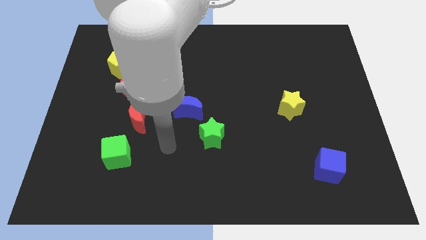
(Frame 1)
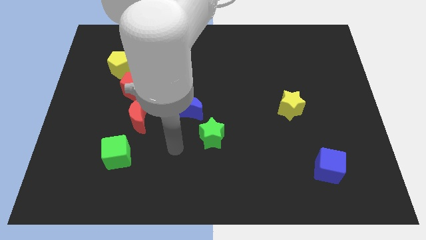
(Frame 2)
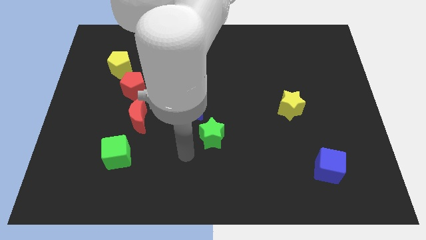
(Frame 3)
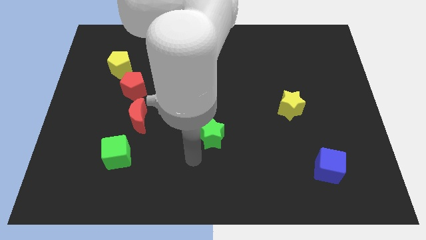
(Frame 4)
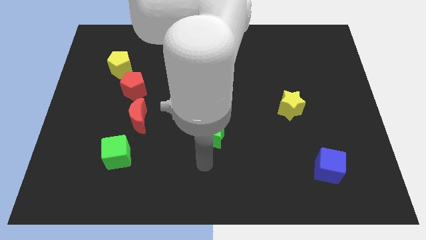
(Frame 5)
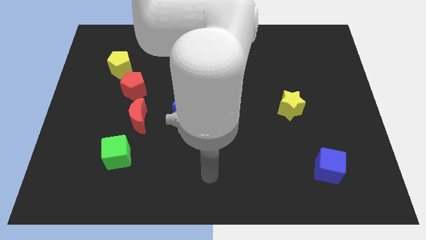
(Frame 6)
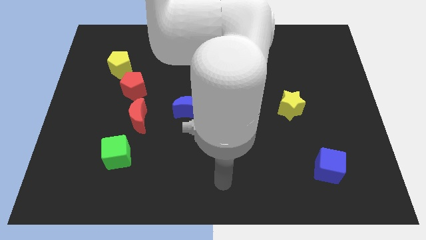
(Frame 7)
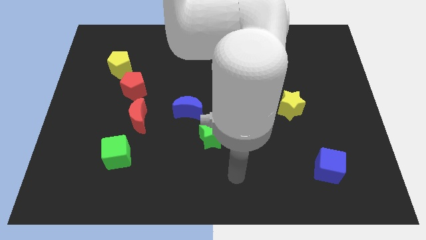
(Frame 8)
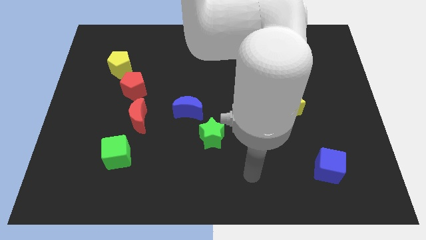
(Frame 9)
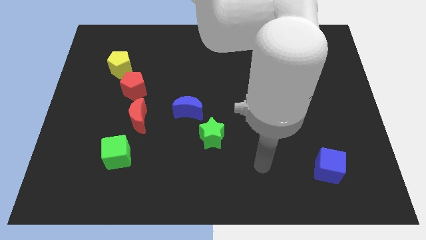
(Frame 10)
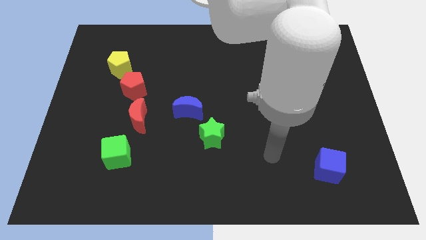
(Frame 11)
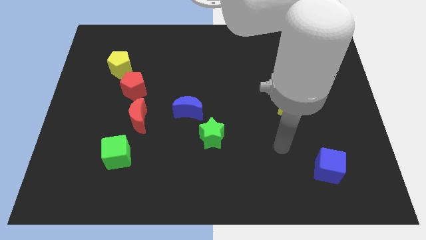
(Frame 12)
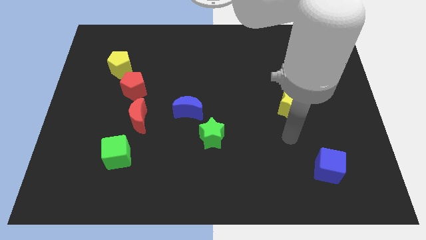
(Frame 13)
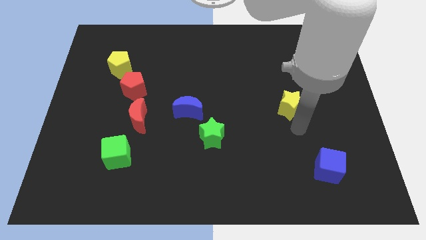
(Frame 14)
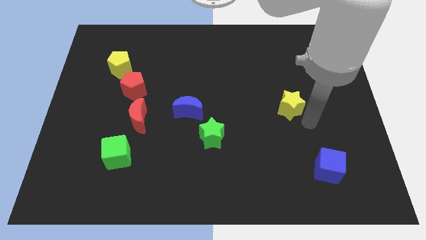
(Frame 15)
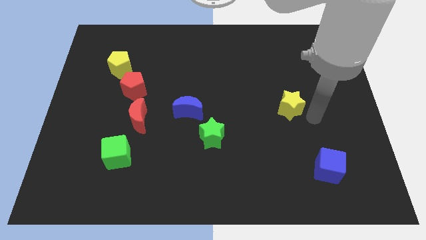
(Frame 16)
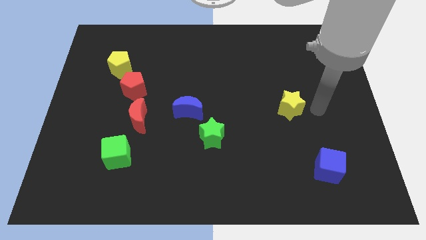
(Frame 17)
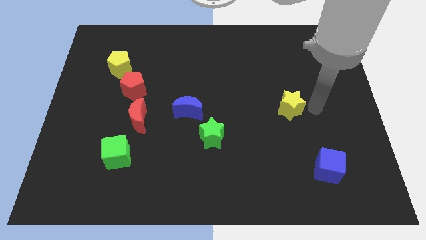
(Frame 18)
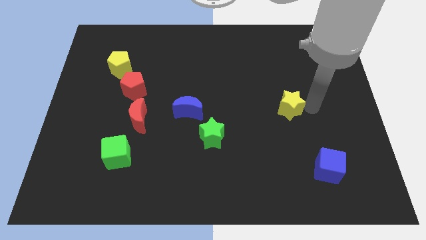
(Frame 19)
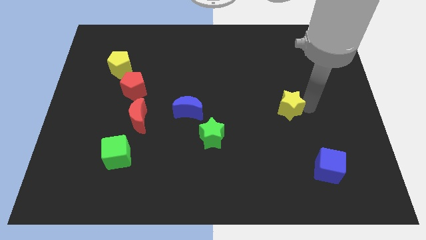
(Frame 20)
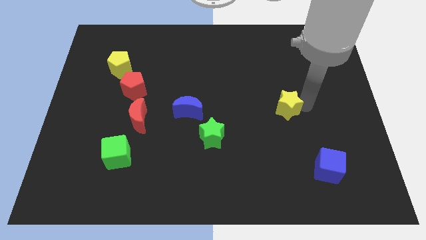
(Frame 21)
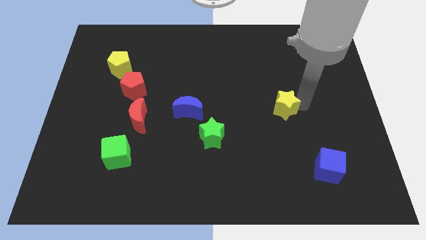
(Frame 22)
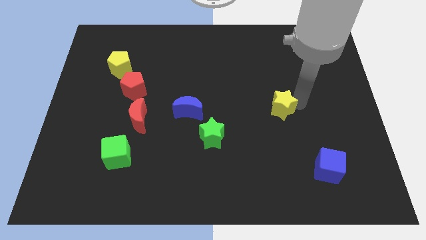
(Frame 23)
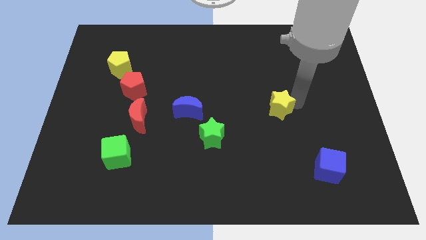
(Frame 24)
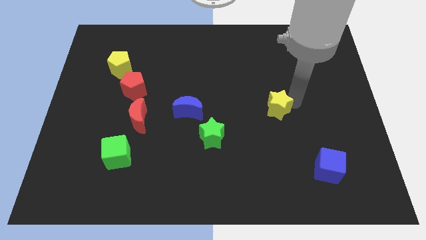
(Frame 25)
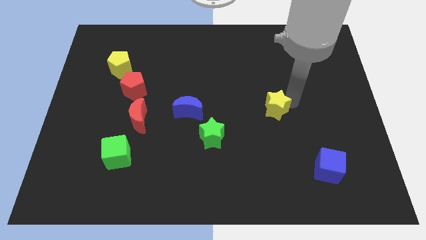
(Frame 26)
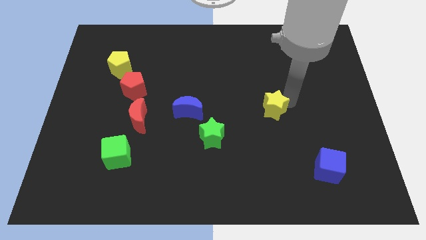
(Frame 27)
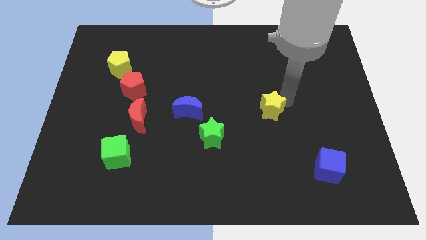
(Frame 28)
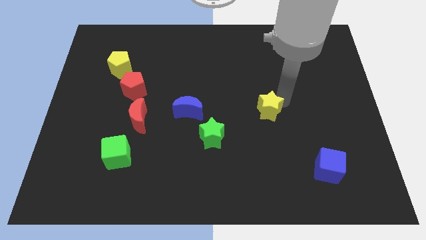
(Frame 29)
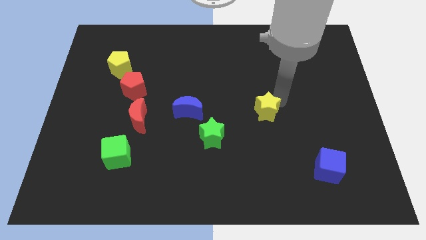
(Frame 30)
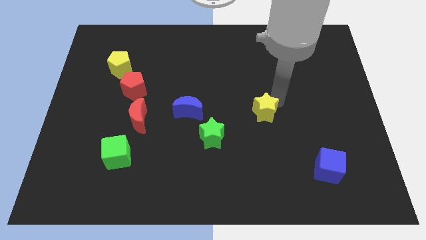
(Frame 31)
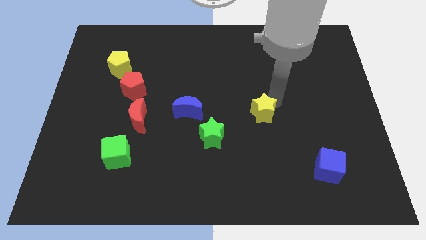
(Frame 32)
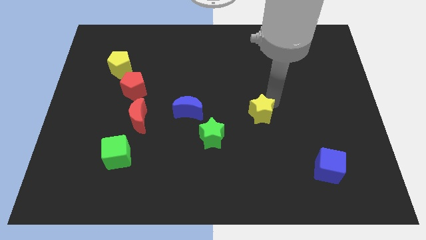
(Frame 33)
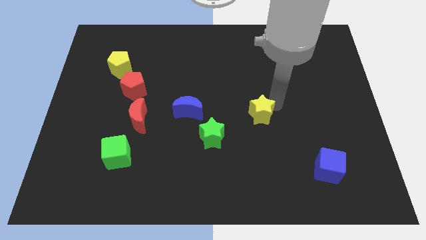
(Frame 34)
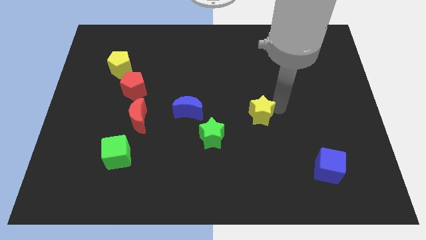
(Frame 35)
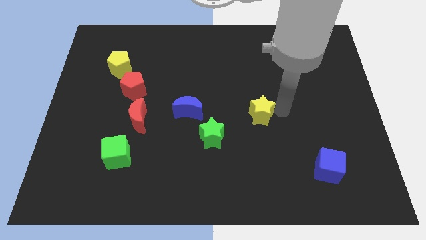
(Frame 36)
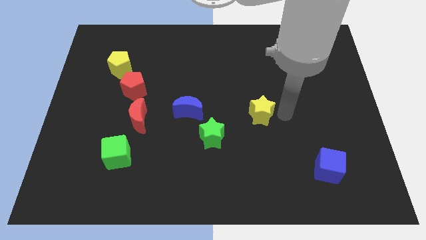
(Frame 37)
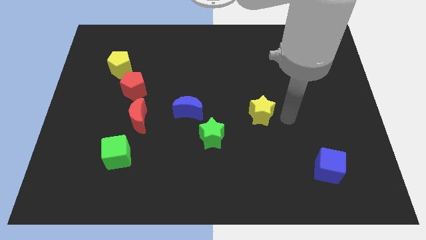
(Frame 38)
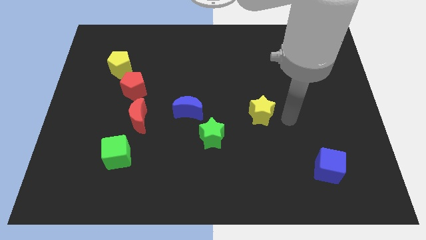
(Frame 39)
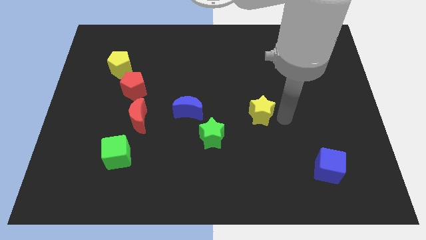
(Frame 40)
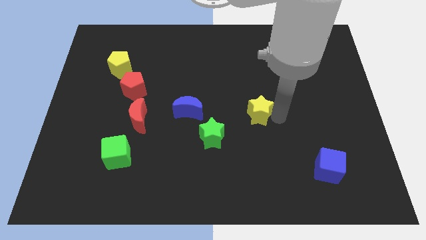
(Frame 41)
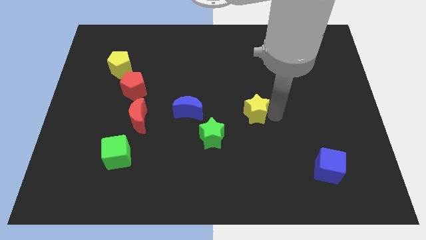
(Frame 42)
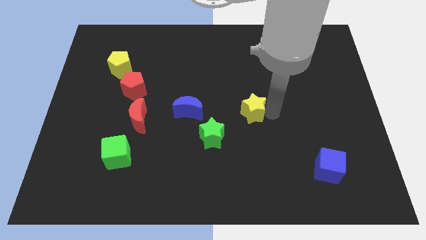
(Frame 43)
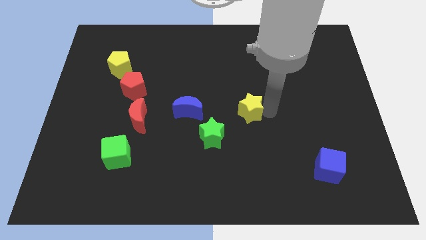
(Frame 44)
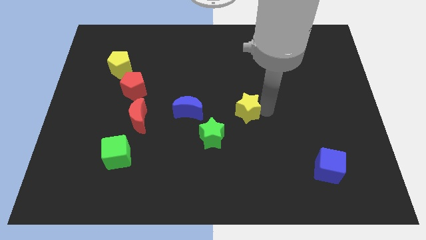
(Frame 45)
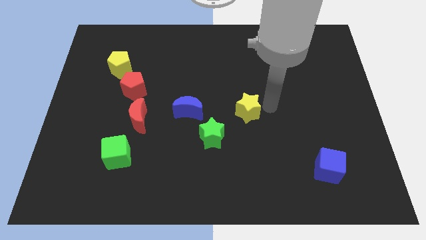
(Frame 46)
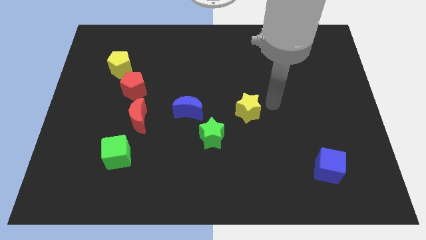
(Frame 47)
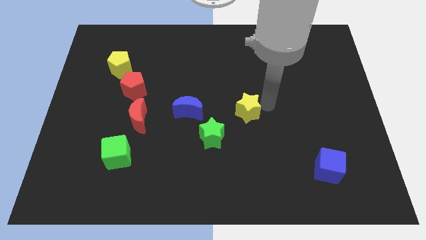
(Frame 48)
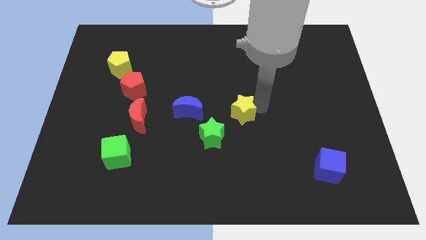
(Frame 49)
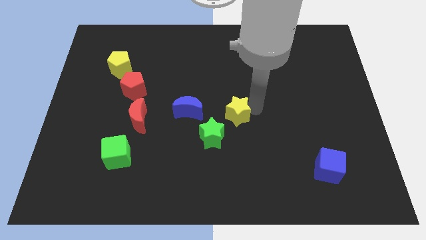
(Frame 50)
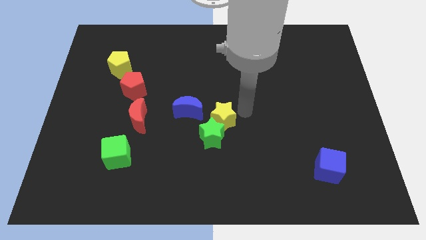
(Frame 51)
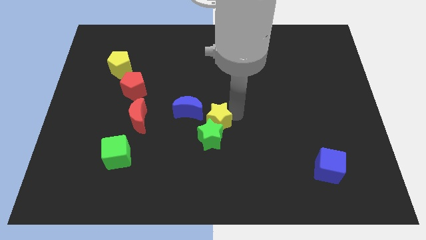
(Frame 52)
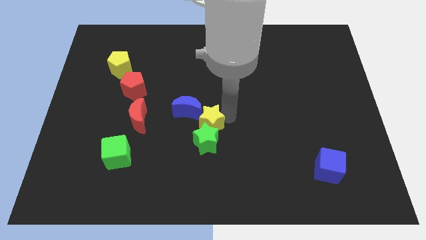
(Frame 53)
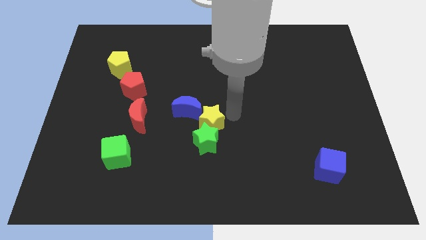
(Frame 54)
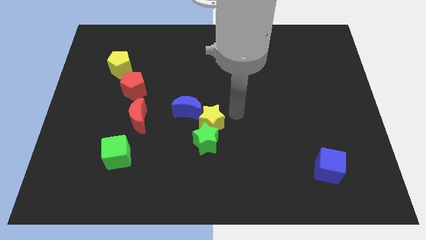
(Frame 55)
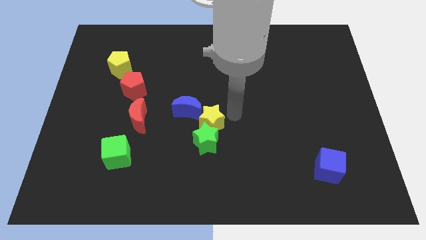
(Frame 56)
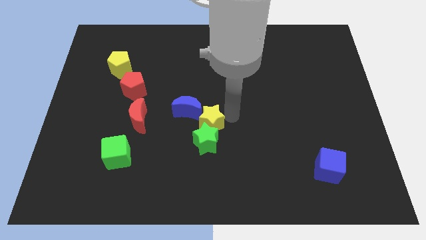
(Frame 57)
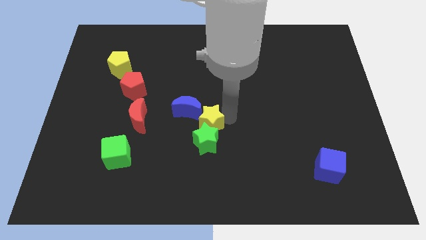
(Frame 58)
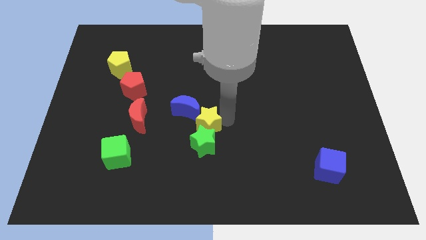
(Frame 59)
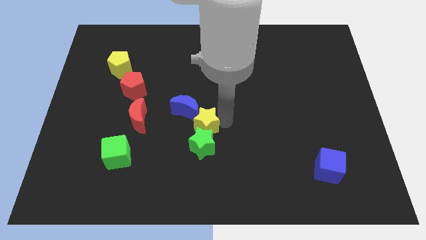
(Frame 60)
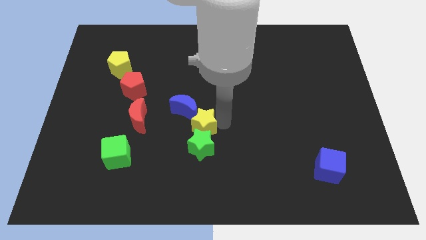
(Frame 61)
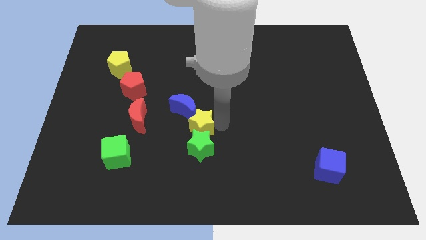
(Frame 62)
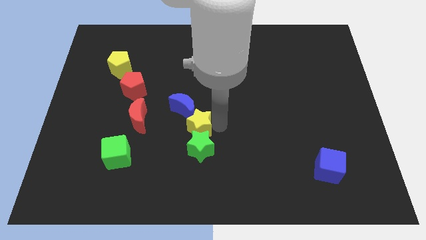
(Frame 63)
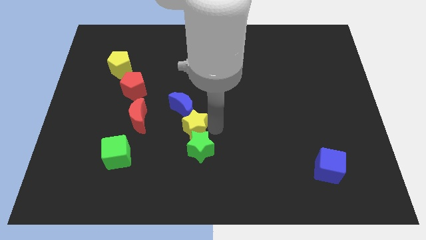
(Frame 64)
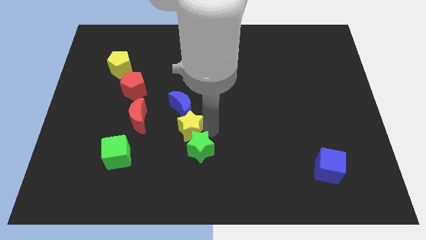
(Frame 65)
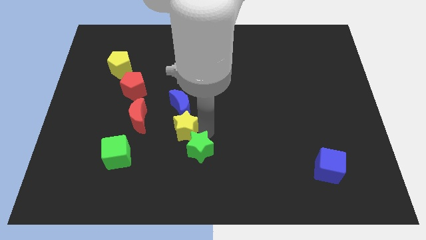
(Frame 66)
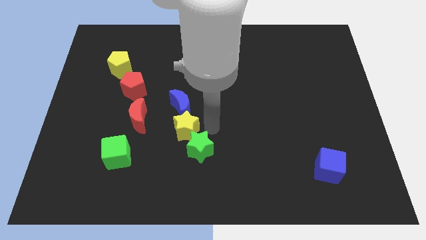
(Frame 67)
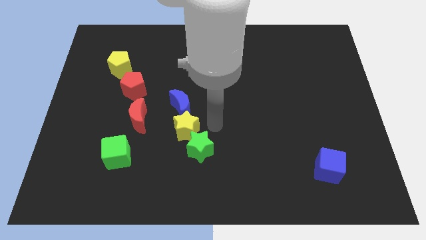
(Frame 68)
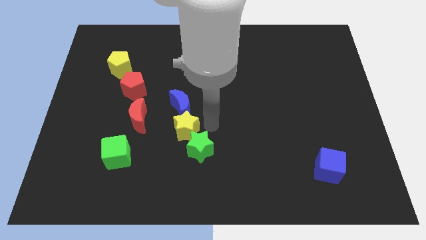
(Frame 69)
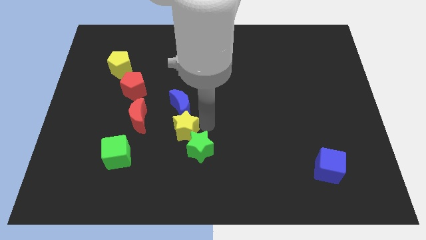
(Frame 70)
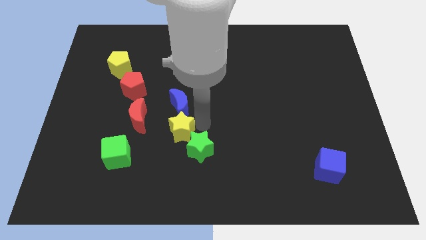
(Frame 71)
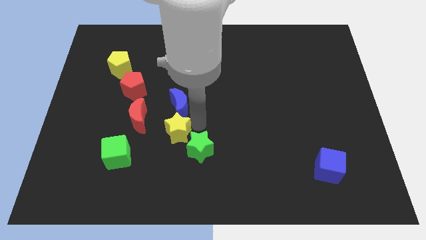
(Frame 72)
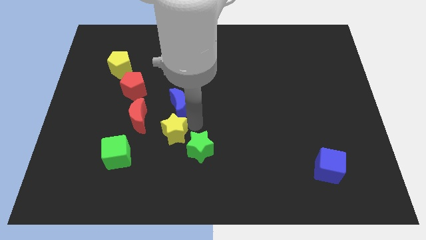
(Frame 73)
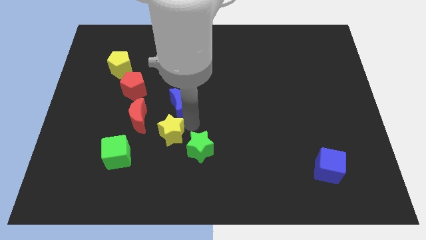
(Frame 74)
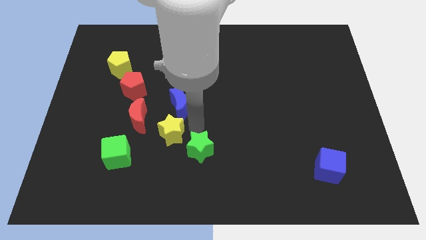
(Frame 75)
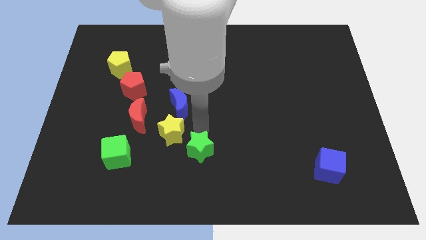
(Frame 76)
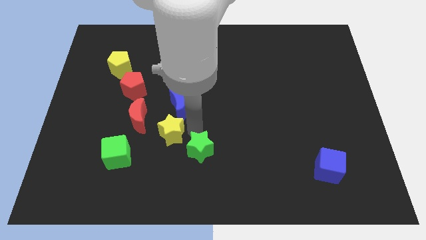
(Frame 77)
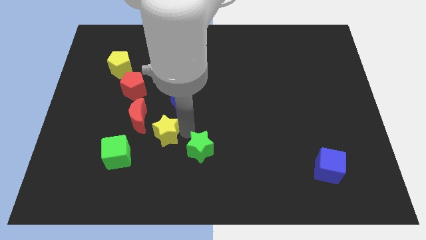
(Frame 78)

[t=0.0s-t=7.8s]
put the yellow star to the top right side of the green cube

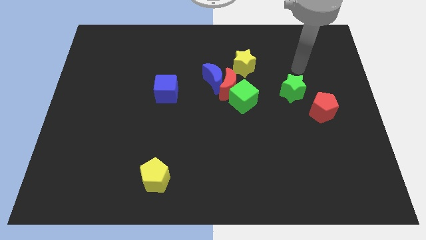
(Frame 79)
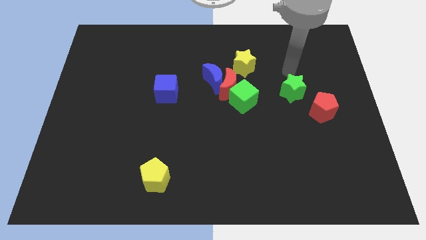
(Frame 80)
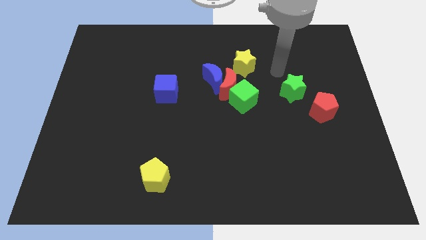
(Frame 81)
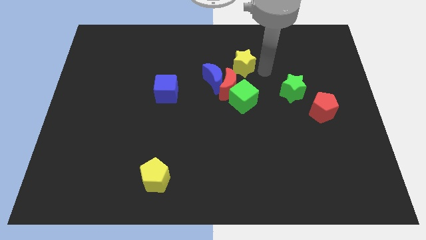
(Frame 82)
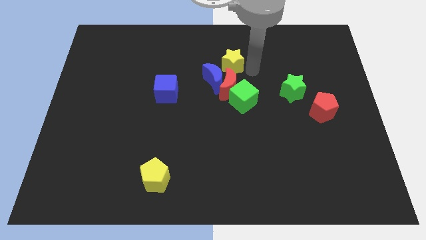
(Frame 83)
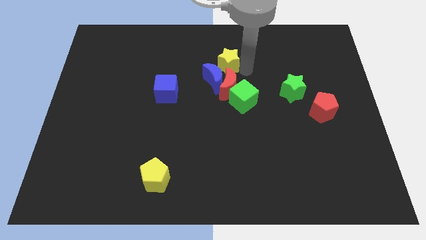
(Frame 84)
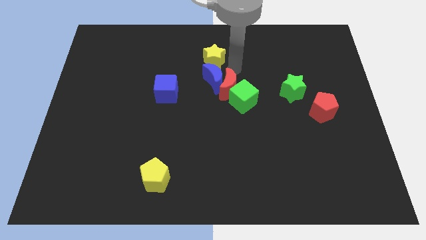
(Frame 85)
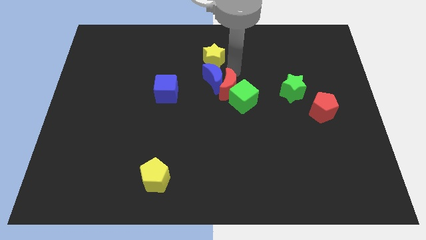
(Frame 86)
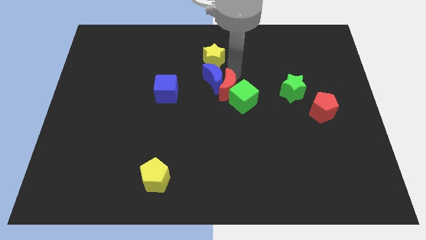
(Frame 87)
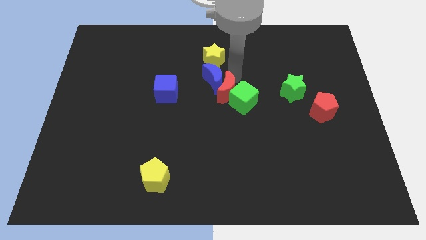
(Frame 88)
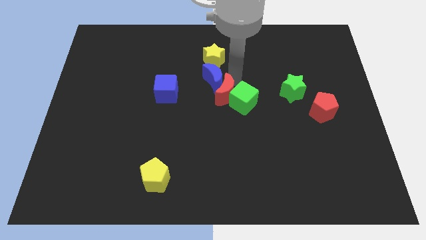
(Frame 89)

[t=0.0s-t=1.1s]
push the red moon to the bottom left side of the green cube
